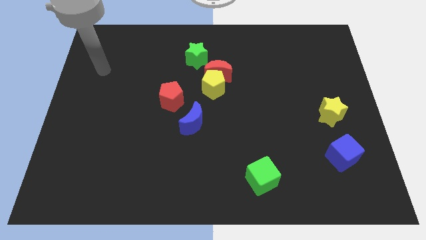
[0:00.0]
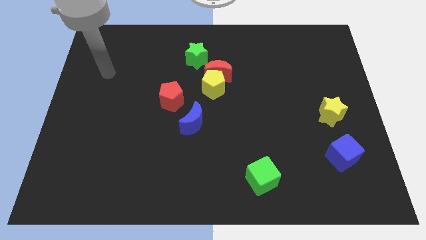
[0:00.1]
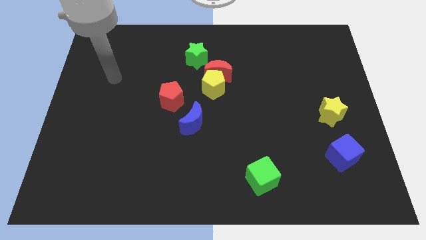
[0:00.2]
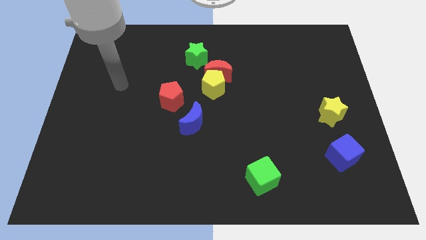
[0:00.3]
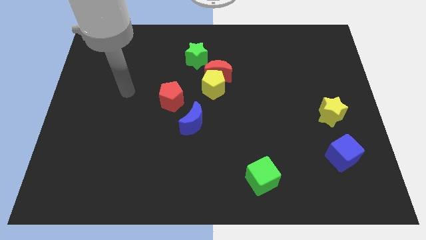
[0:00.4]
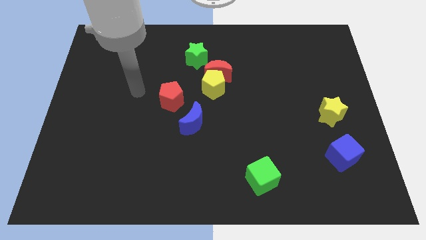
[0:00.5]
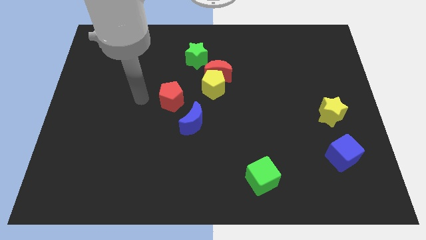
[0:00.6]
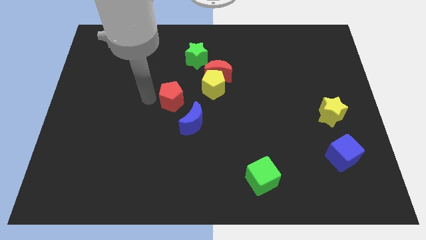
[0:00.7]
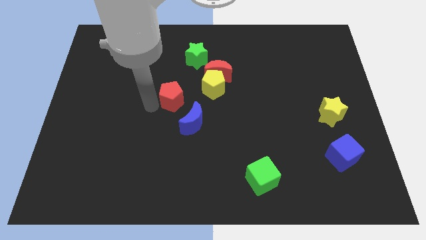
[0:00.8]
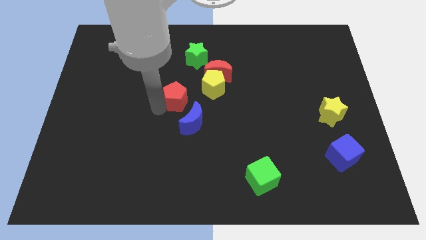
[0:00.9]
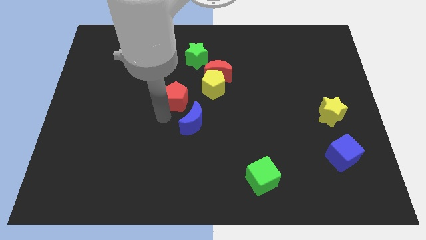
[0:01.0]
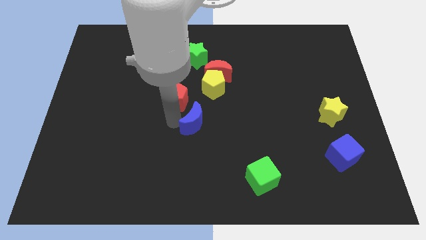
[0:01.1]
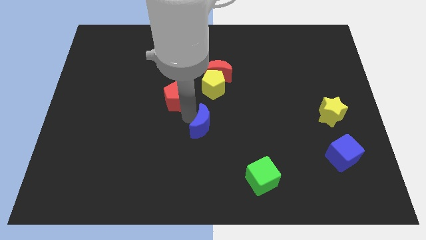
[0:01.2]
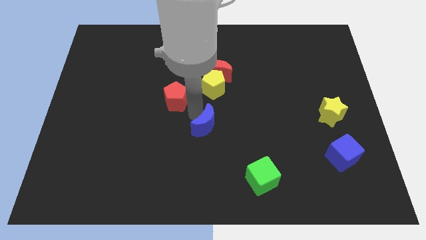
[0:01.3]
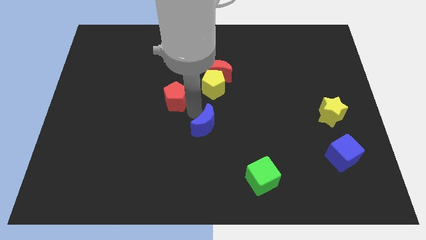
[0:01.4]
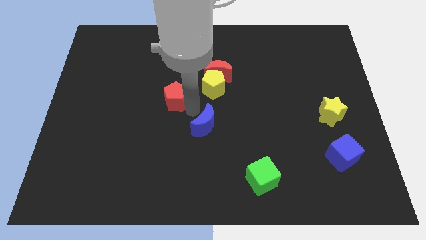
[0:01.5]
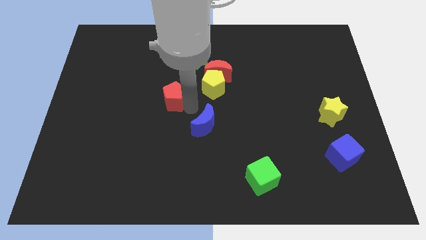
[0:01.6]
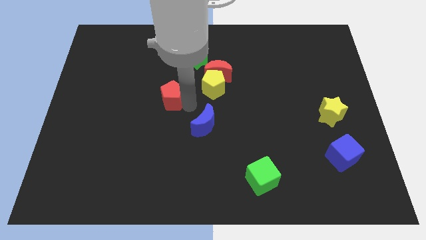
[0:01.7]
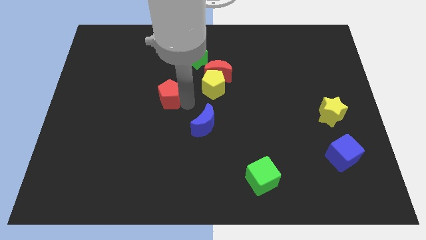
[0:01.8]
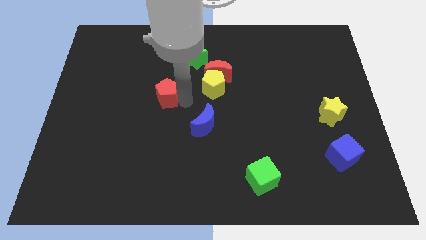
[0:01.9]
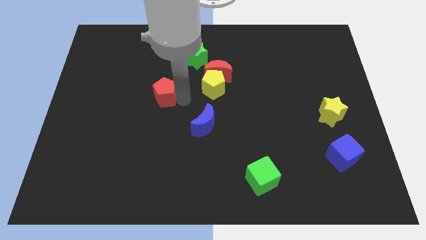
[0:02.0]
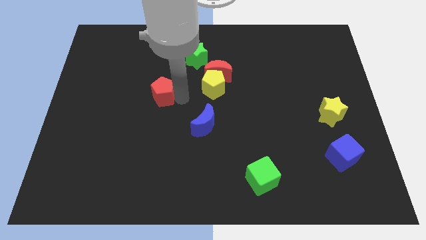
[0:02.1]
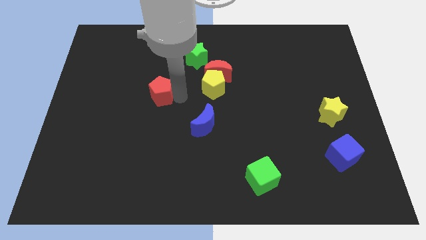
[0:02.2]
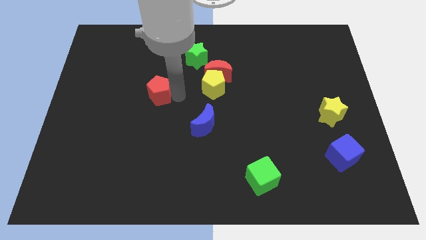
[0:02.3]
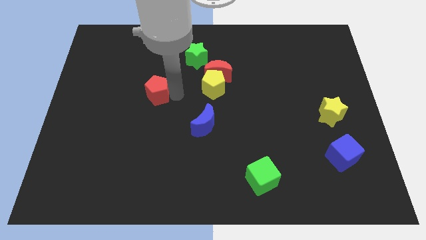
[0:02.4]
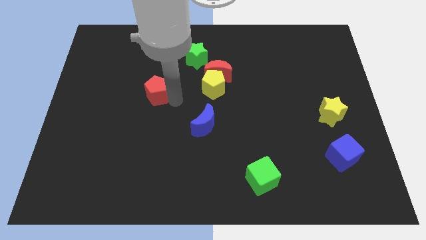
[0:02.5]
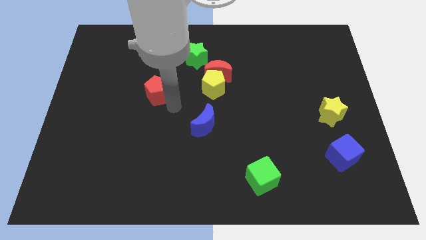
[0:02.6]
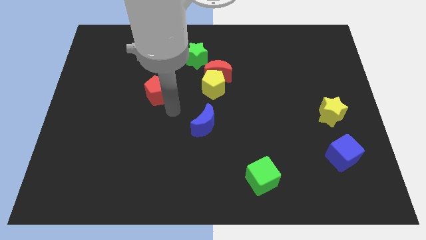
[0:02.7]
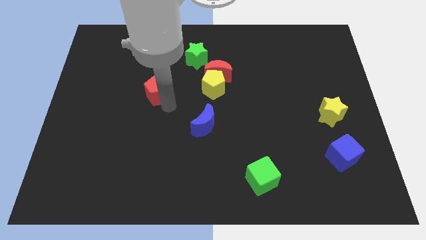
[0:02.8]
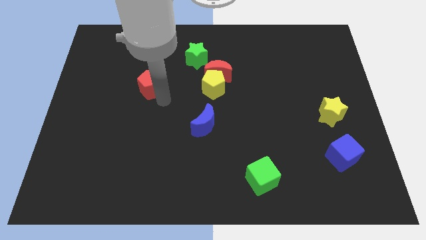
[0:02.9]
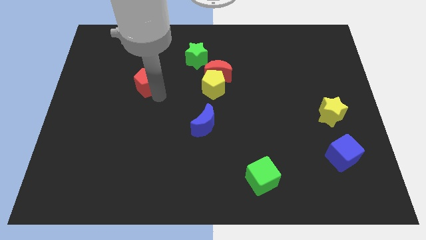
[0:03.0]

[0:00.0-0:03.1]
slightly push the red pentagon up and then left

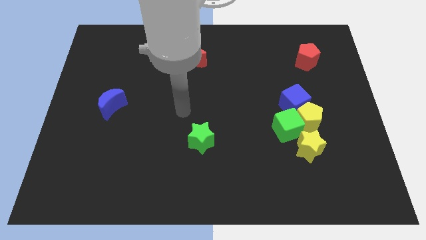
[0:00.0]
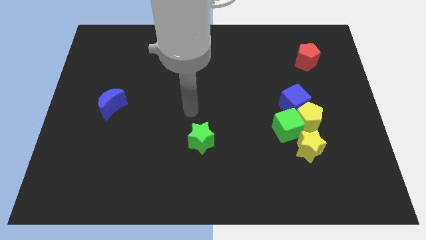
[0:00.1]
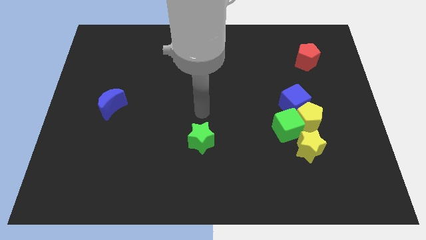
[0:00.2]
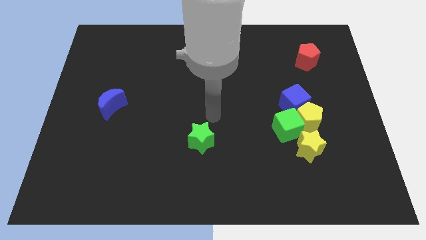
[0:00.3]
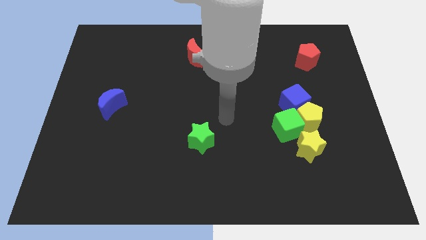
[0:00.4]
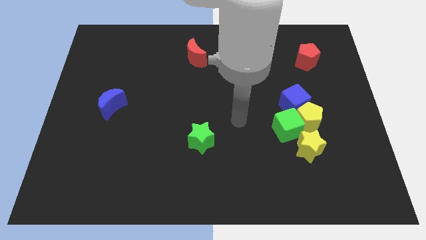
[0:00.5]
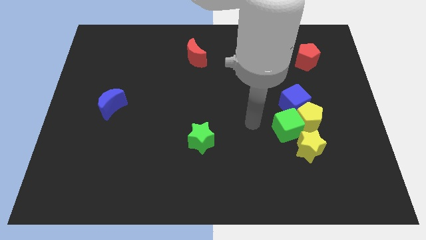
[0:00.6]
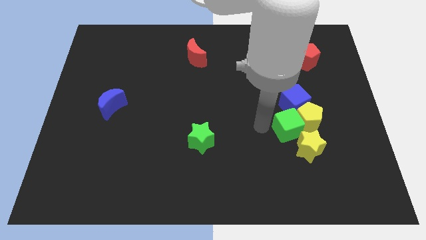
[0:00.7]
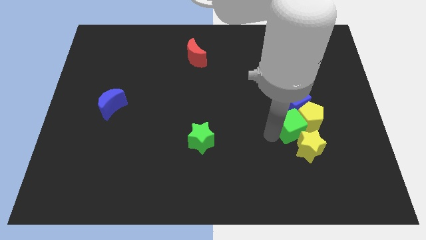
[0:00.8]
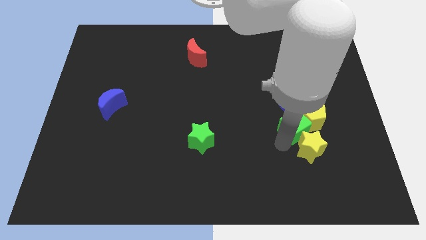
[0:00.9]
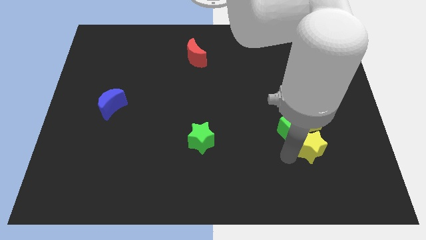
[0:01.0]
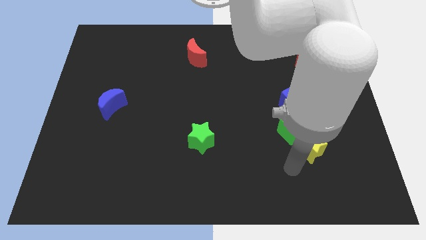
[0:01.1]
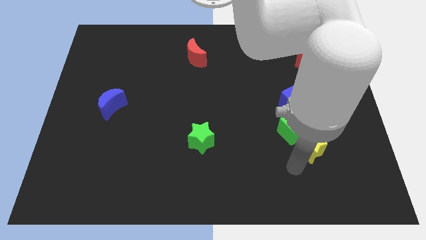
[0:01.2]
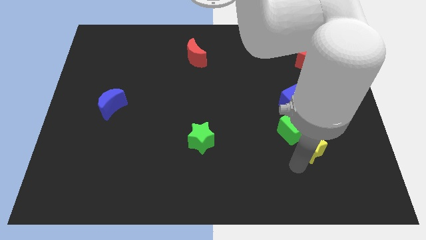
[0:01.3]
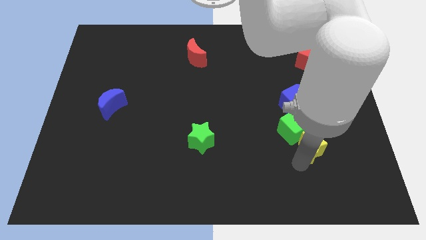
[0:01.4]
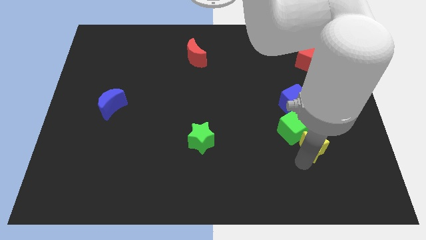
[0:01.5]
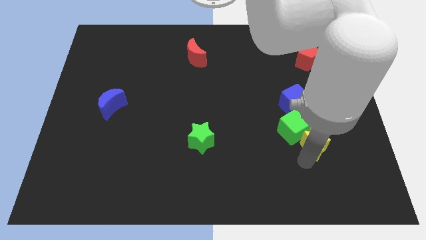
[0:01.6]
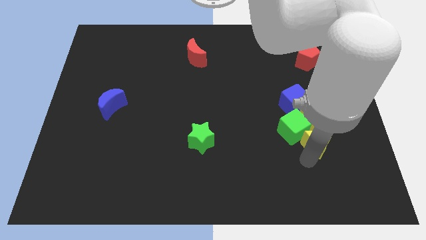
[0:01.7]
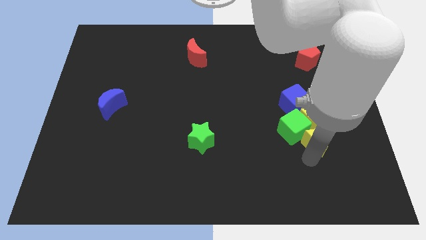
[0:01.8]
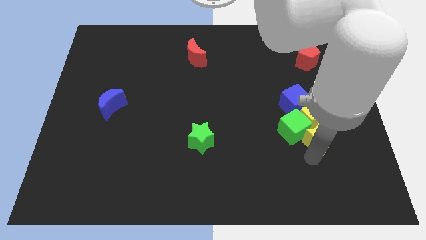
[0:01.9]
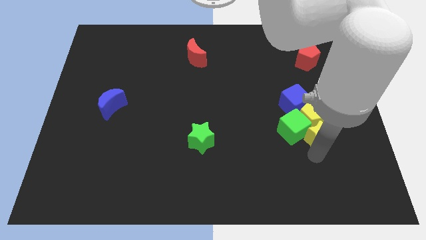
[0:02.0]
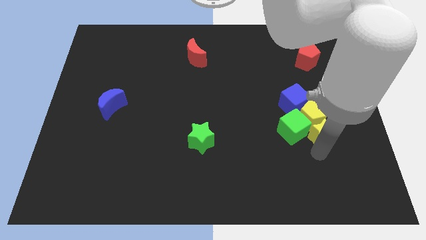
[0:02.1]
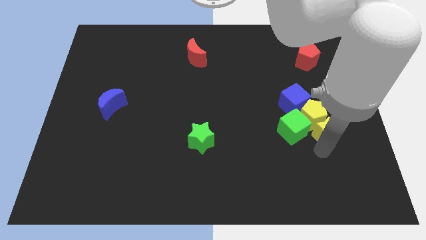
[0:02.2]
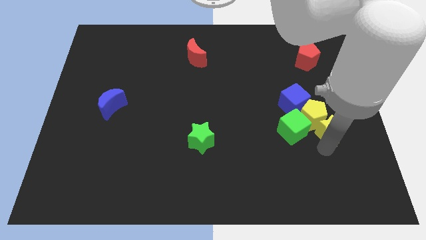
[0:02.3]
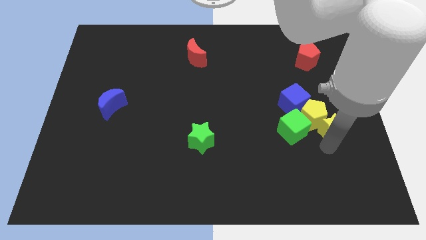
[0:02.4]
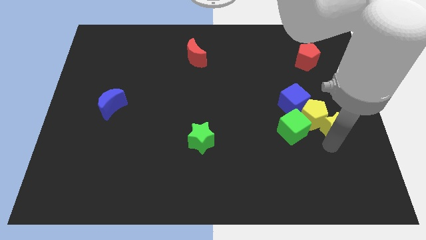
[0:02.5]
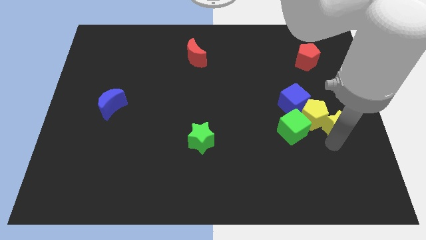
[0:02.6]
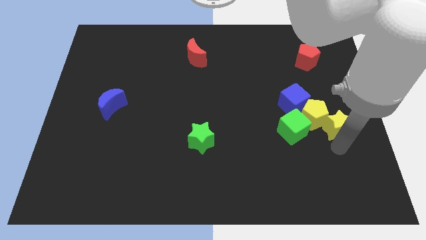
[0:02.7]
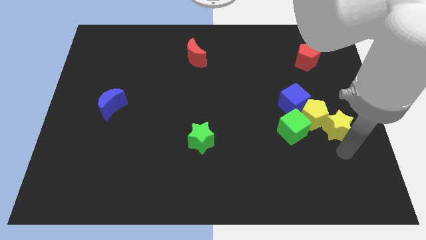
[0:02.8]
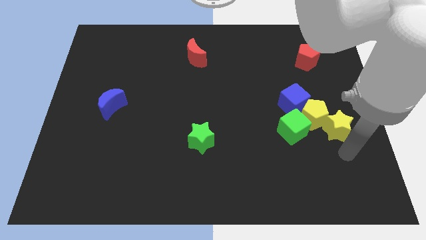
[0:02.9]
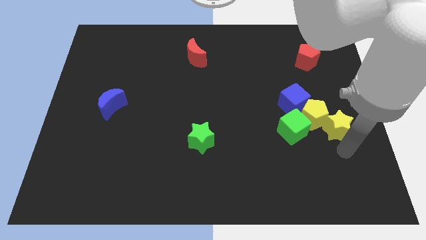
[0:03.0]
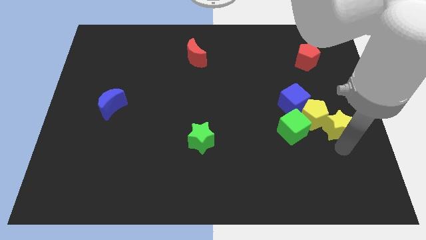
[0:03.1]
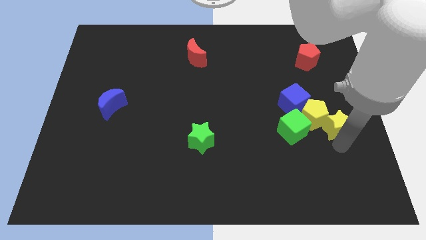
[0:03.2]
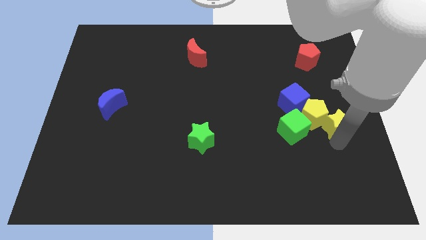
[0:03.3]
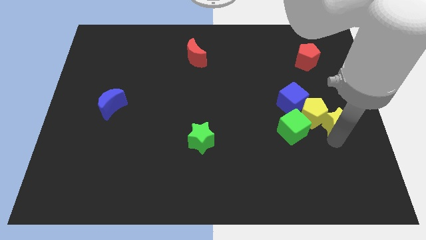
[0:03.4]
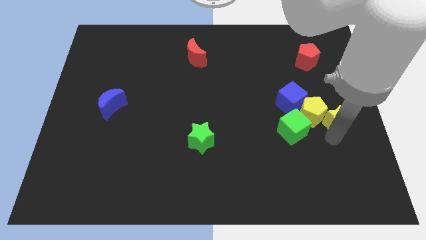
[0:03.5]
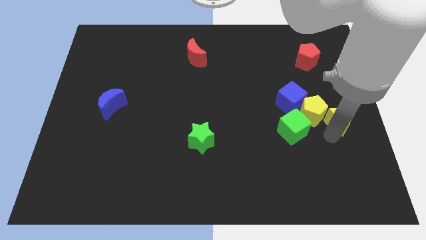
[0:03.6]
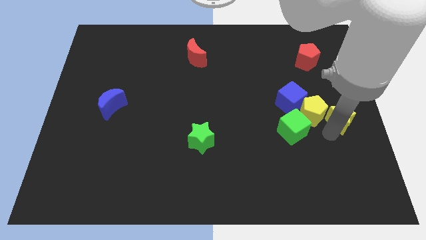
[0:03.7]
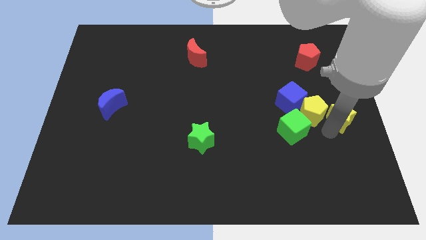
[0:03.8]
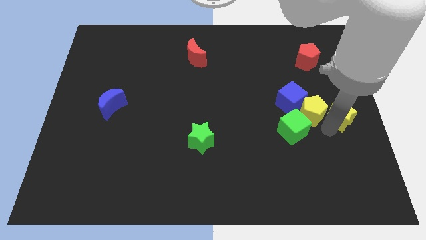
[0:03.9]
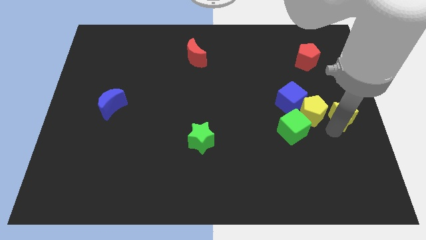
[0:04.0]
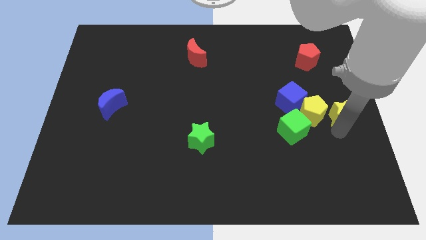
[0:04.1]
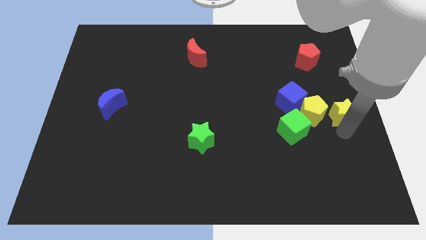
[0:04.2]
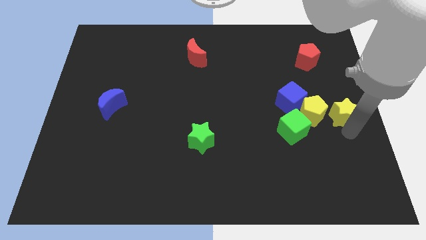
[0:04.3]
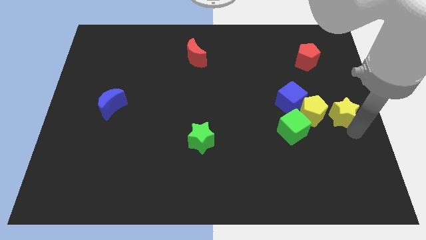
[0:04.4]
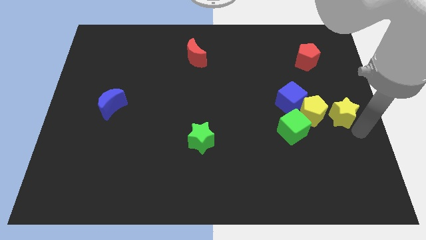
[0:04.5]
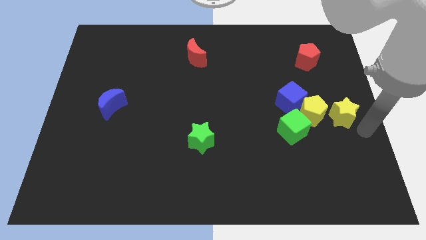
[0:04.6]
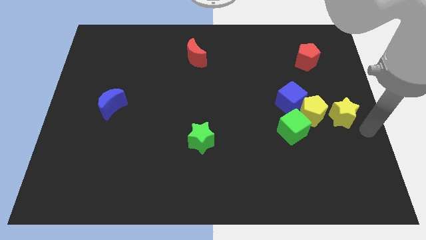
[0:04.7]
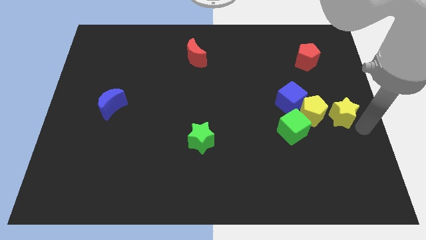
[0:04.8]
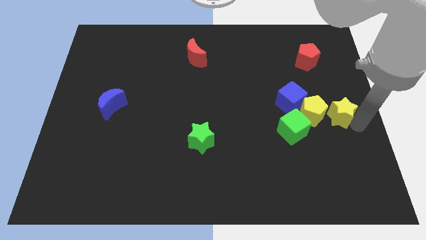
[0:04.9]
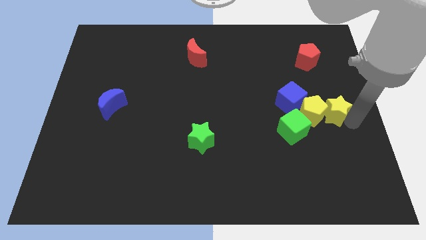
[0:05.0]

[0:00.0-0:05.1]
slide the yellow star a little bit upwards
